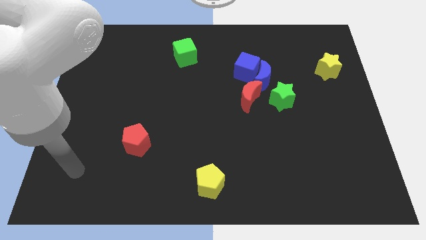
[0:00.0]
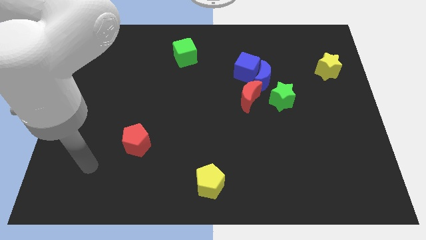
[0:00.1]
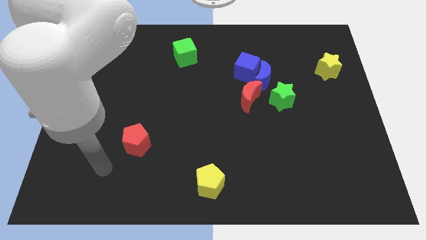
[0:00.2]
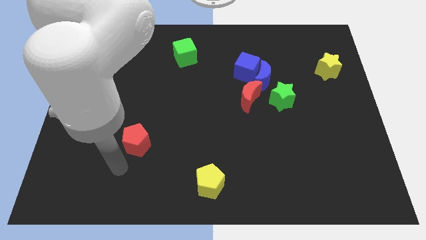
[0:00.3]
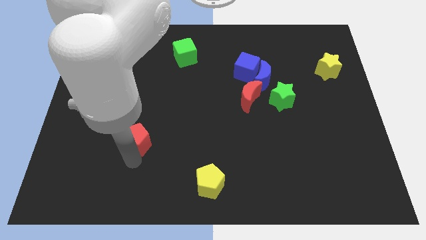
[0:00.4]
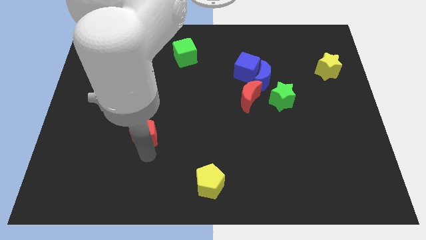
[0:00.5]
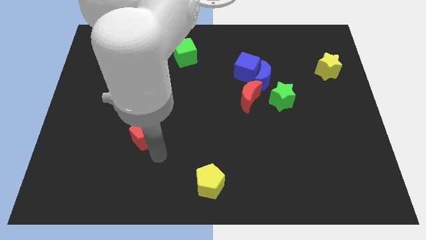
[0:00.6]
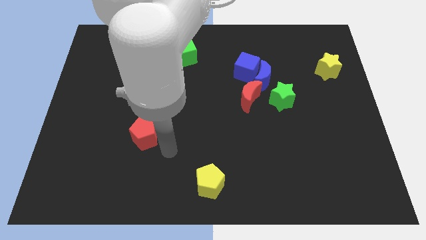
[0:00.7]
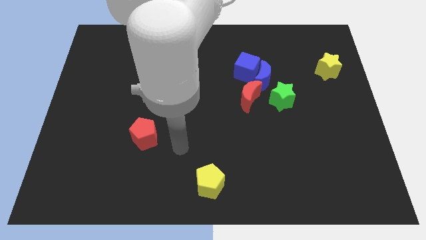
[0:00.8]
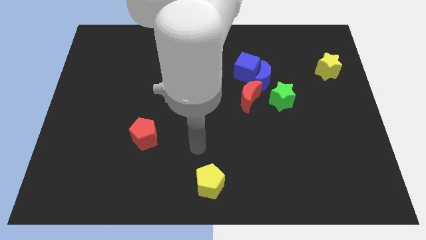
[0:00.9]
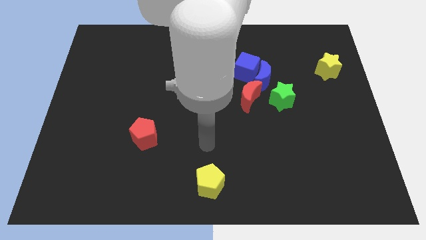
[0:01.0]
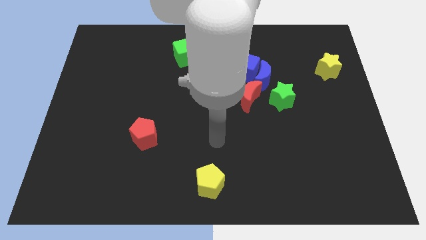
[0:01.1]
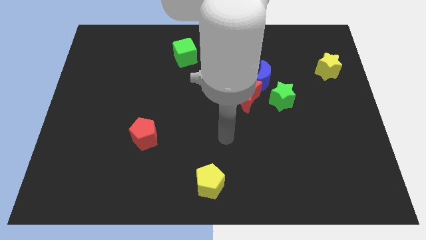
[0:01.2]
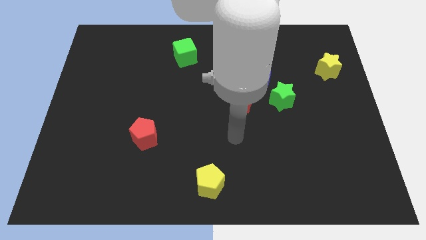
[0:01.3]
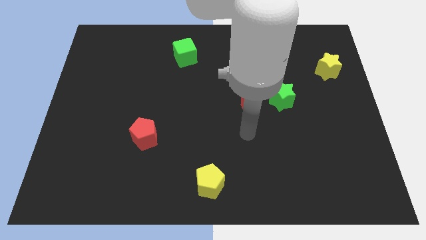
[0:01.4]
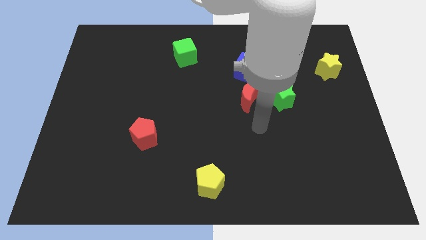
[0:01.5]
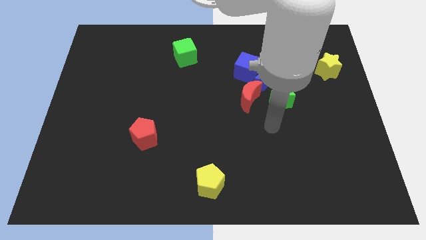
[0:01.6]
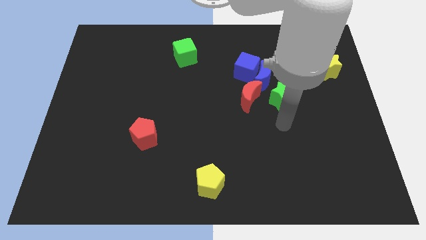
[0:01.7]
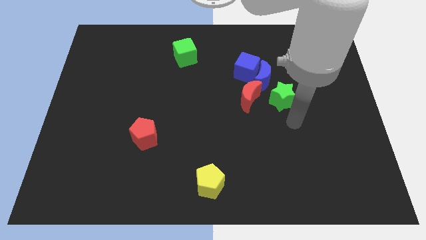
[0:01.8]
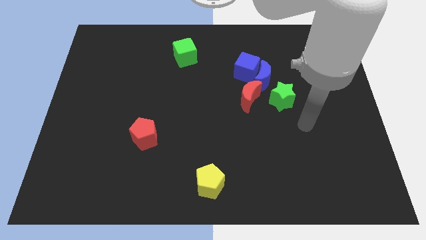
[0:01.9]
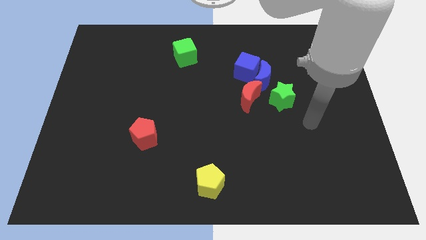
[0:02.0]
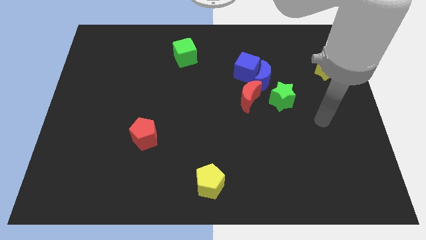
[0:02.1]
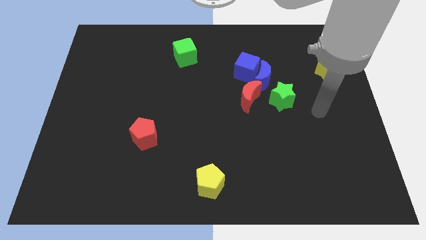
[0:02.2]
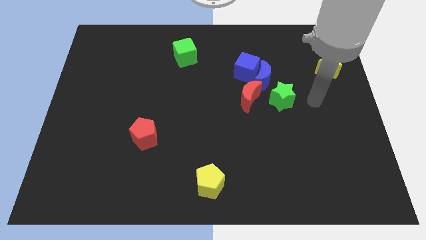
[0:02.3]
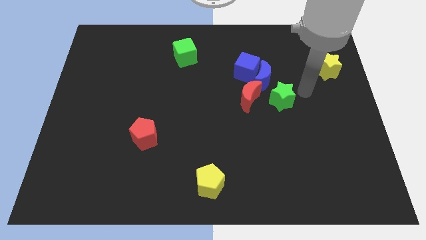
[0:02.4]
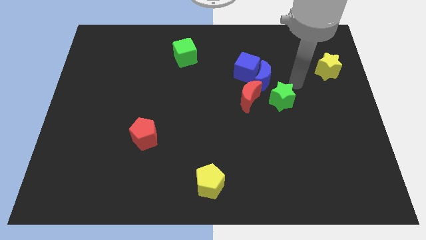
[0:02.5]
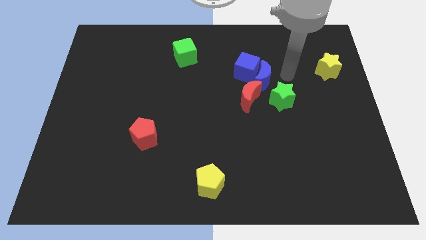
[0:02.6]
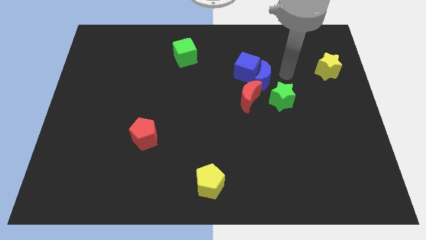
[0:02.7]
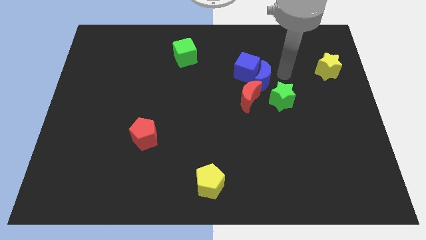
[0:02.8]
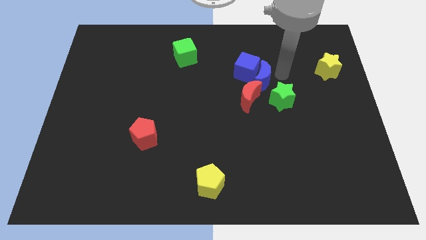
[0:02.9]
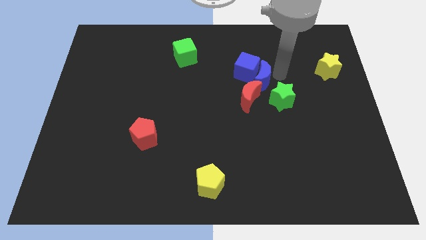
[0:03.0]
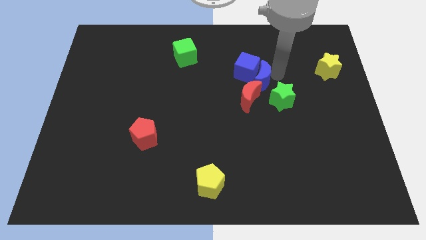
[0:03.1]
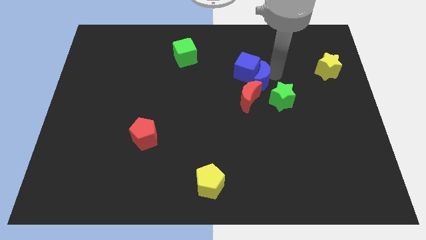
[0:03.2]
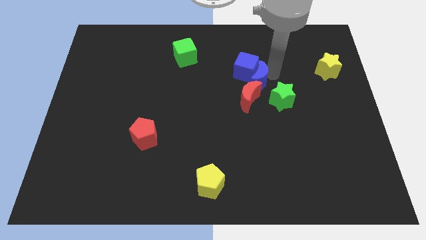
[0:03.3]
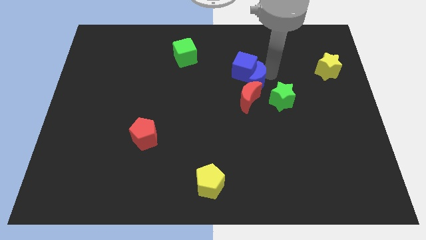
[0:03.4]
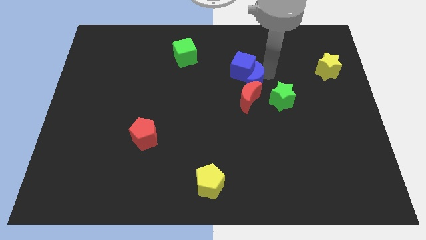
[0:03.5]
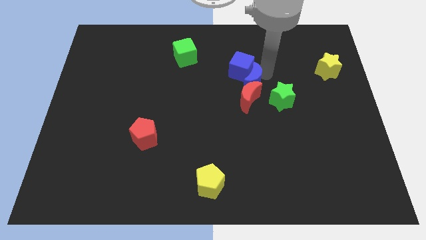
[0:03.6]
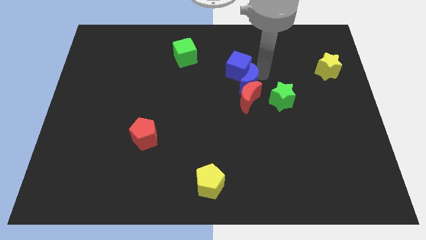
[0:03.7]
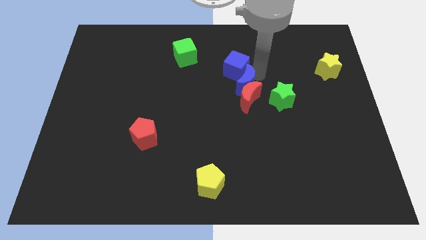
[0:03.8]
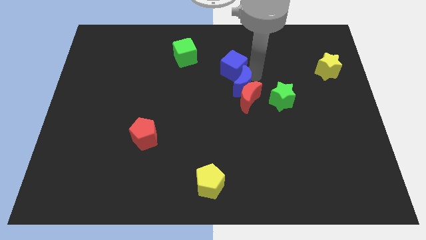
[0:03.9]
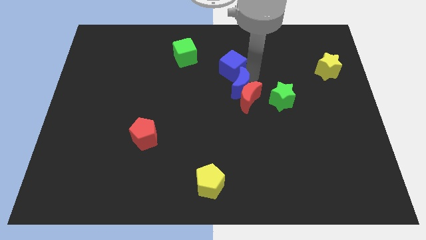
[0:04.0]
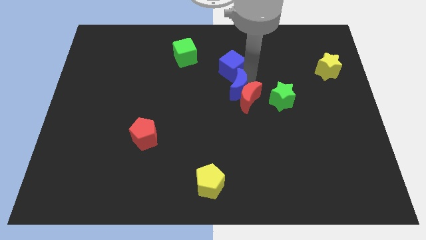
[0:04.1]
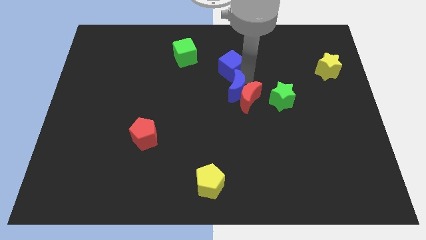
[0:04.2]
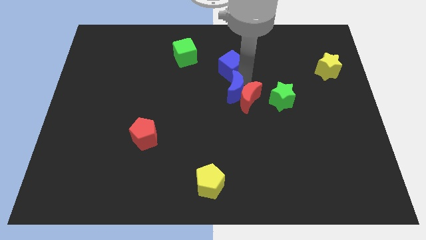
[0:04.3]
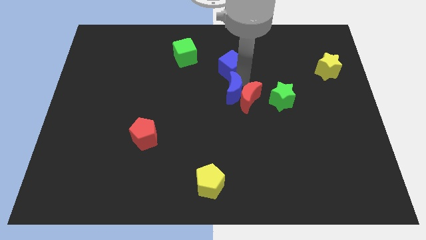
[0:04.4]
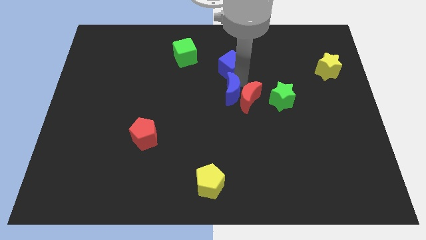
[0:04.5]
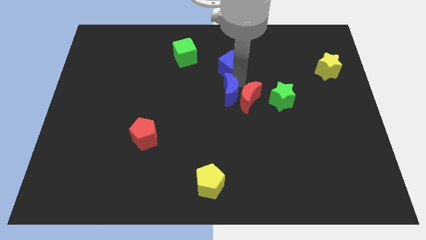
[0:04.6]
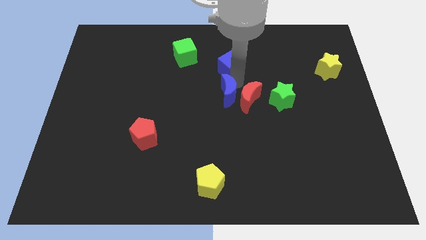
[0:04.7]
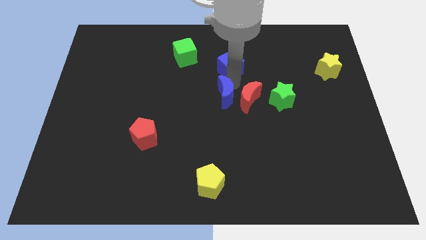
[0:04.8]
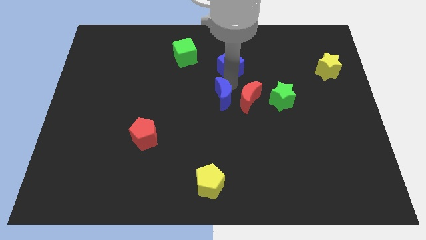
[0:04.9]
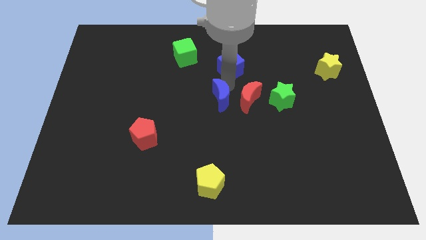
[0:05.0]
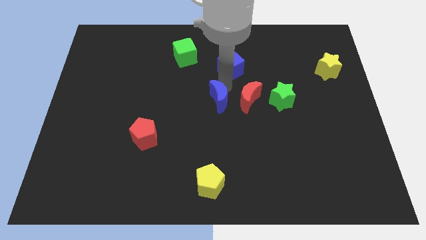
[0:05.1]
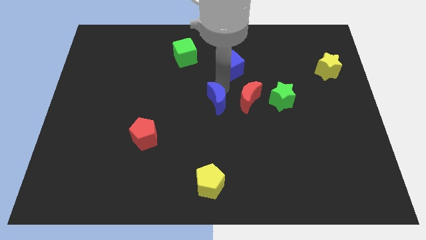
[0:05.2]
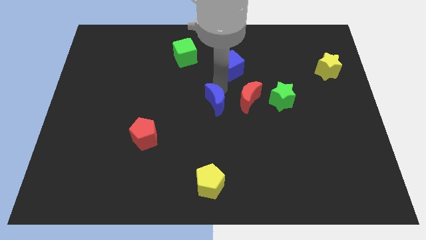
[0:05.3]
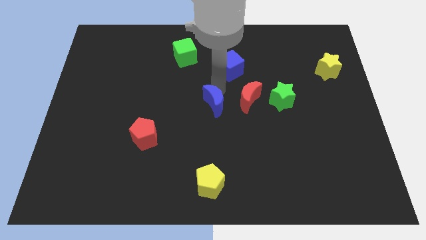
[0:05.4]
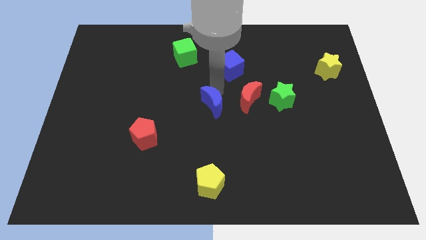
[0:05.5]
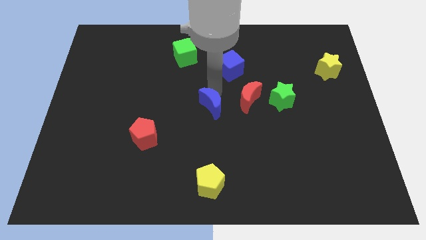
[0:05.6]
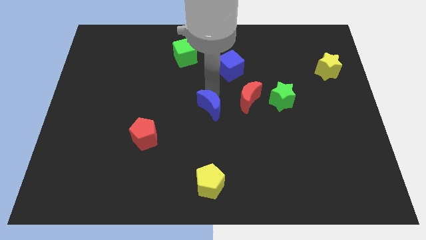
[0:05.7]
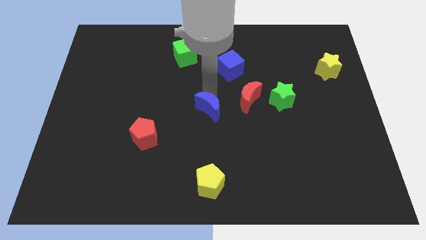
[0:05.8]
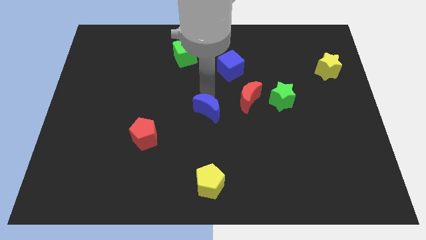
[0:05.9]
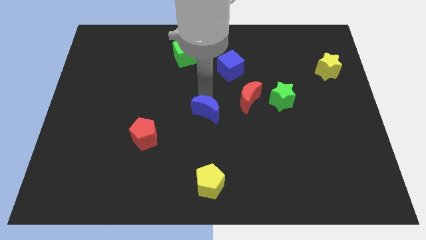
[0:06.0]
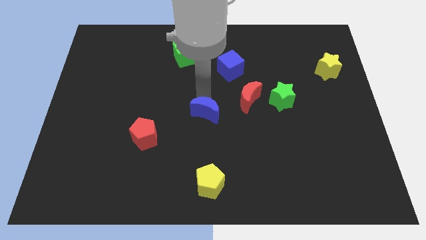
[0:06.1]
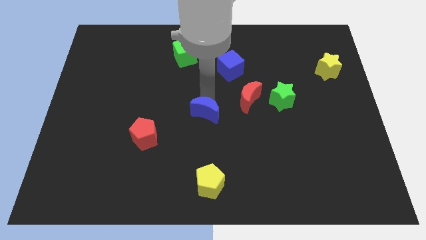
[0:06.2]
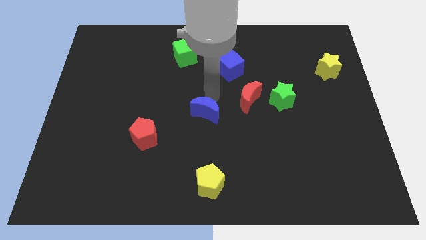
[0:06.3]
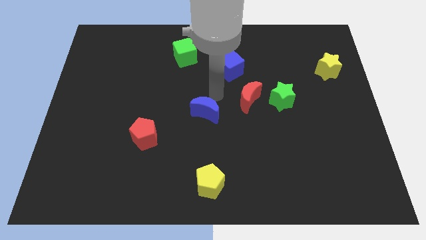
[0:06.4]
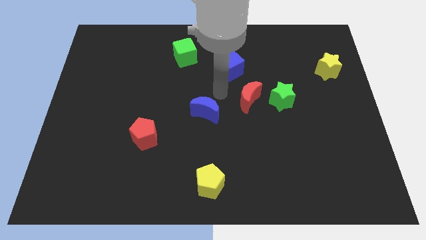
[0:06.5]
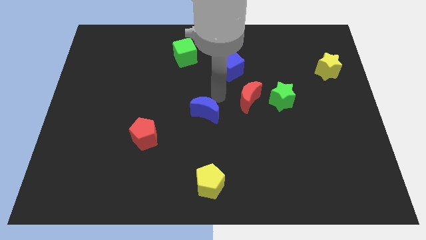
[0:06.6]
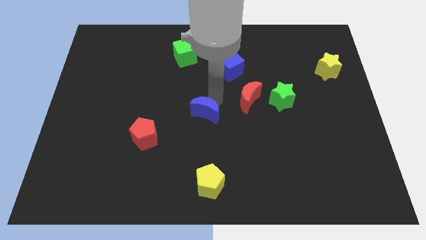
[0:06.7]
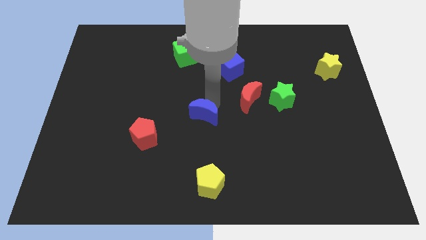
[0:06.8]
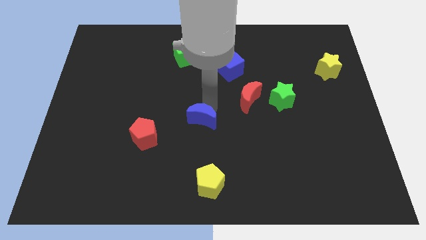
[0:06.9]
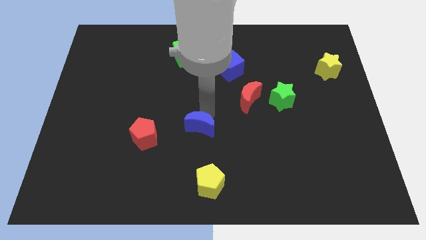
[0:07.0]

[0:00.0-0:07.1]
push the blue moon downwards and to the left diagonally

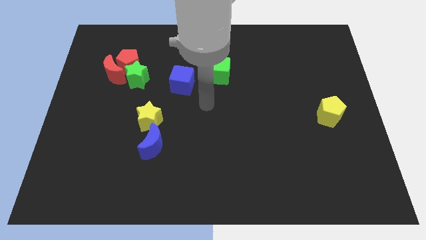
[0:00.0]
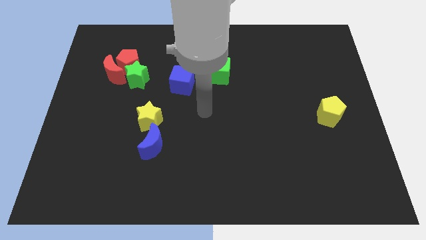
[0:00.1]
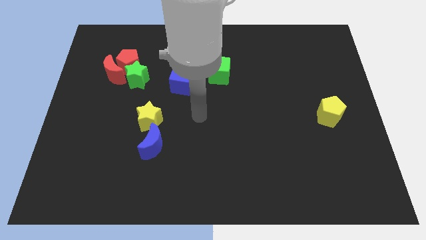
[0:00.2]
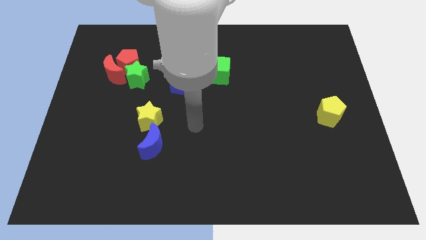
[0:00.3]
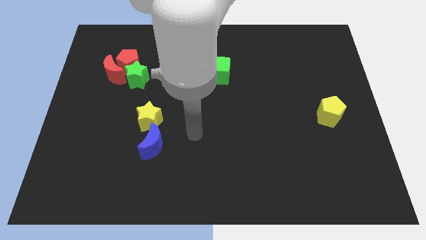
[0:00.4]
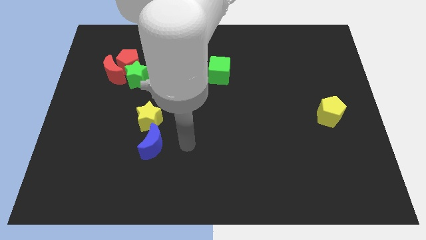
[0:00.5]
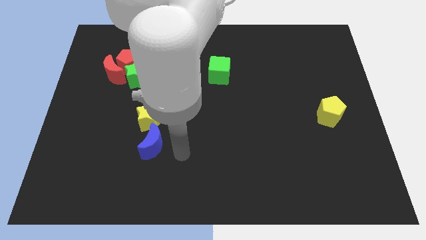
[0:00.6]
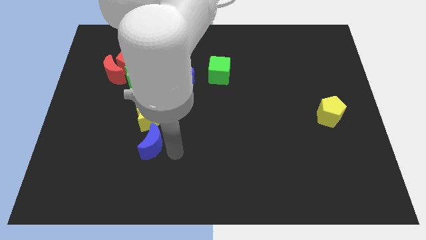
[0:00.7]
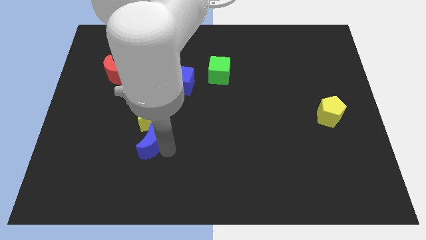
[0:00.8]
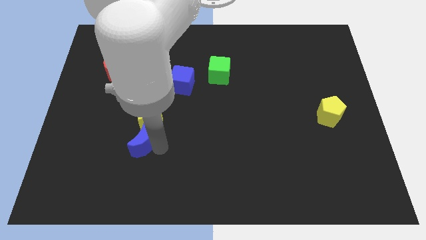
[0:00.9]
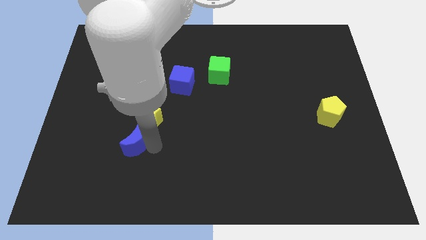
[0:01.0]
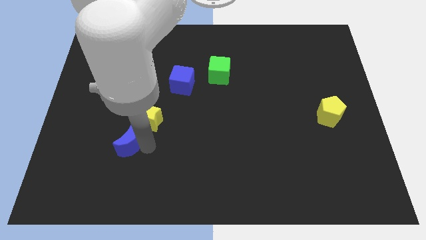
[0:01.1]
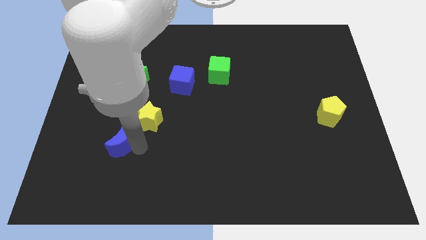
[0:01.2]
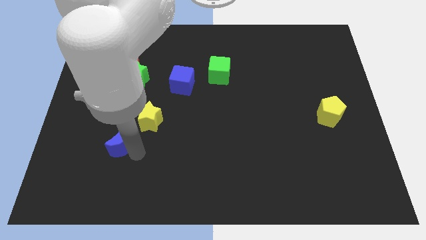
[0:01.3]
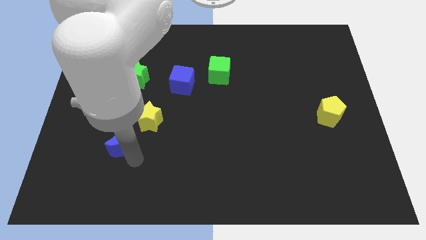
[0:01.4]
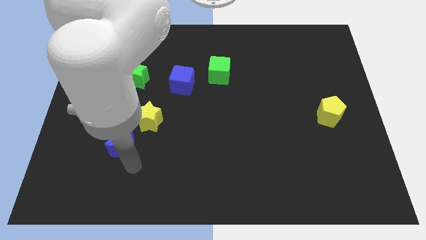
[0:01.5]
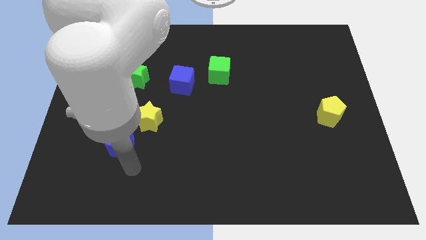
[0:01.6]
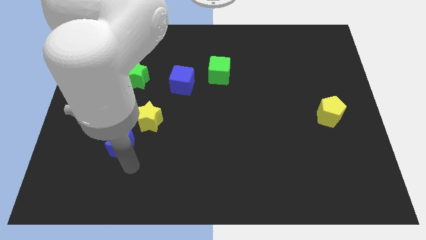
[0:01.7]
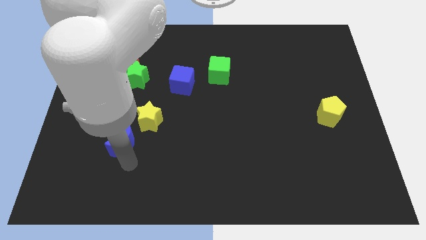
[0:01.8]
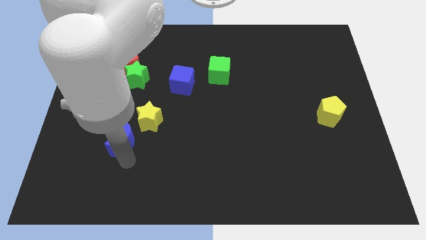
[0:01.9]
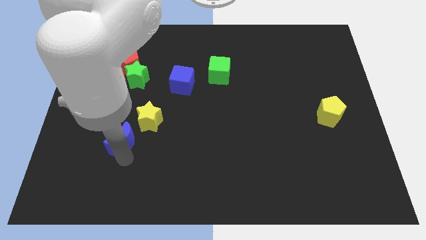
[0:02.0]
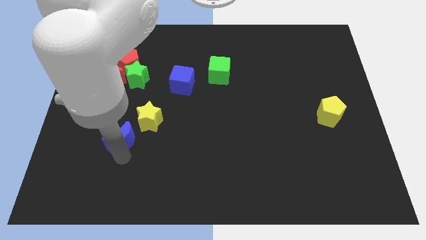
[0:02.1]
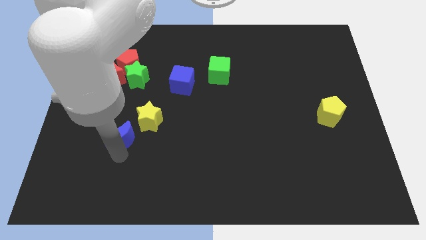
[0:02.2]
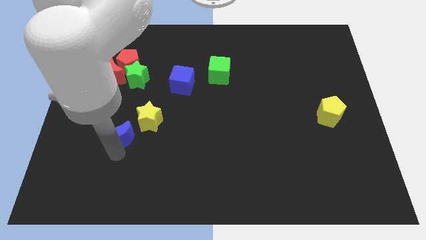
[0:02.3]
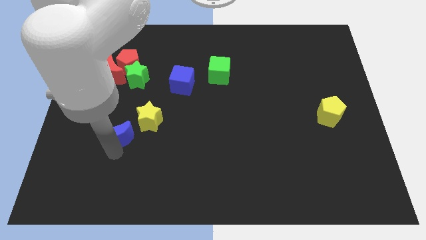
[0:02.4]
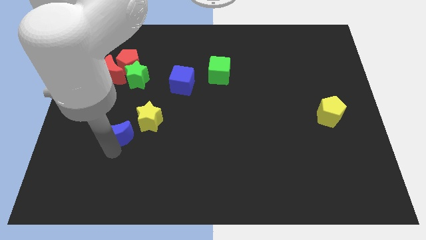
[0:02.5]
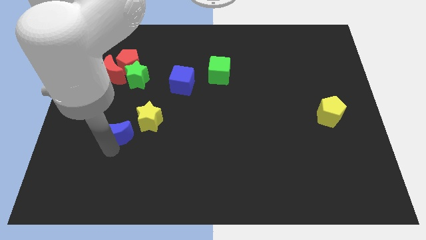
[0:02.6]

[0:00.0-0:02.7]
move the blue moon a little up and left diagonally
